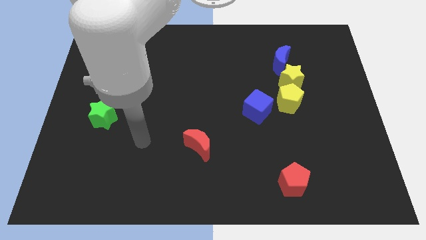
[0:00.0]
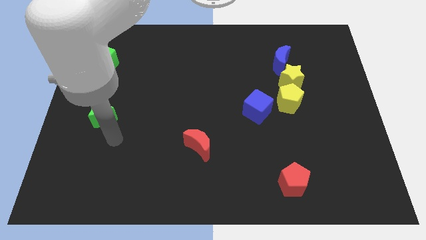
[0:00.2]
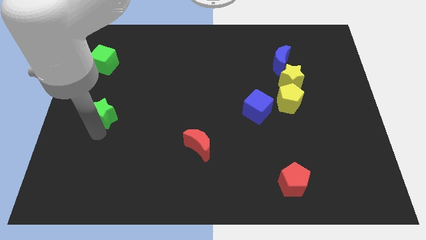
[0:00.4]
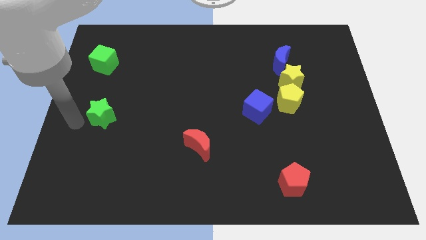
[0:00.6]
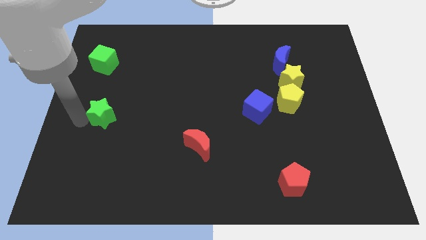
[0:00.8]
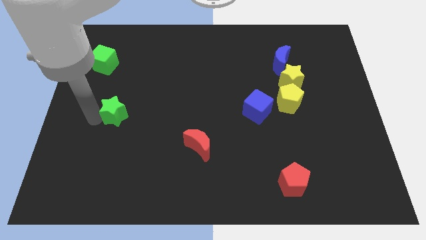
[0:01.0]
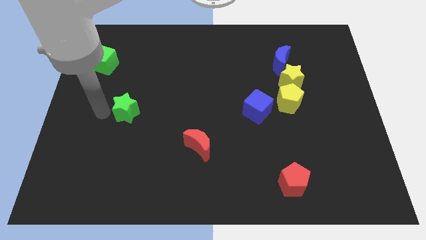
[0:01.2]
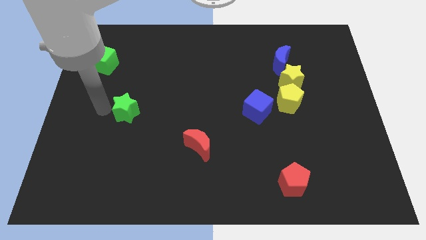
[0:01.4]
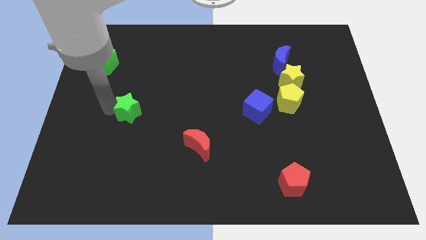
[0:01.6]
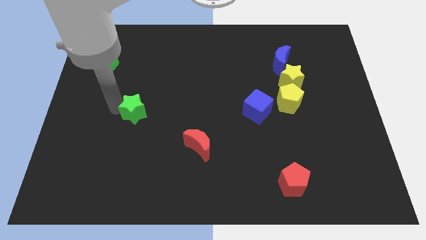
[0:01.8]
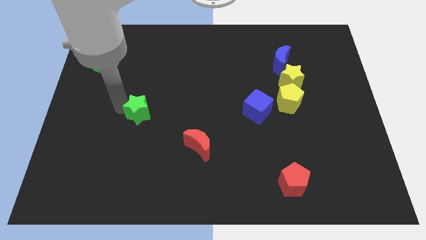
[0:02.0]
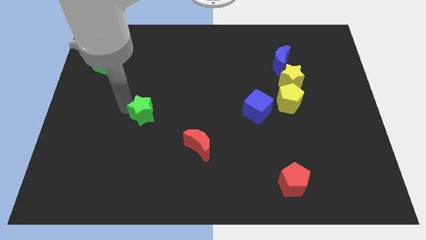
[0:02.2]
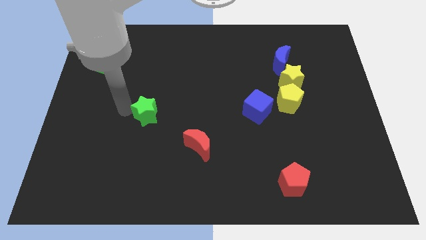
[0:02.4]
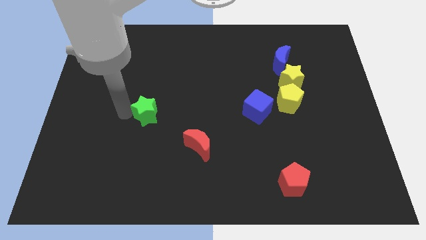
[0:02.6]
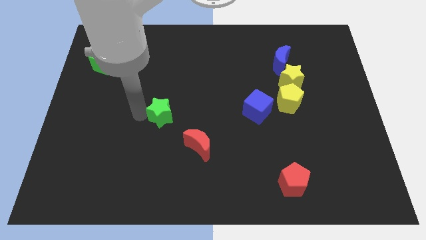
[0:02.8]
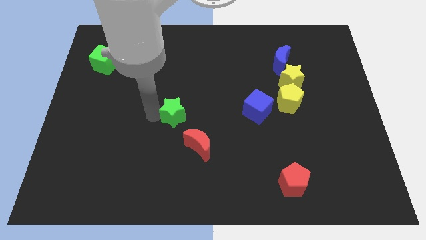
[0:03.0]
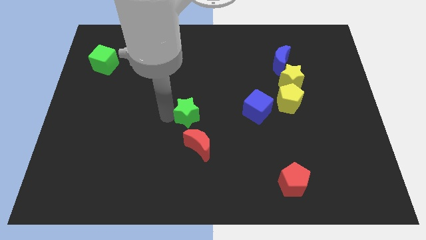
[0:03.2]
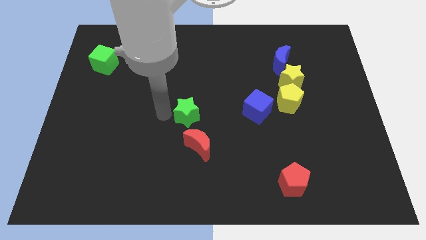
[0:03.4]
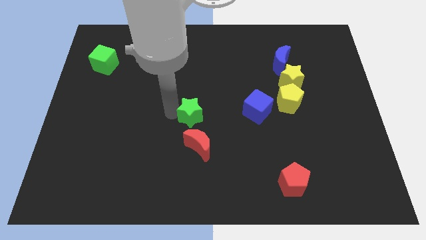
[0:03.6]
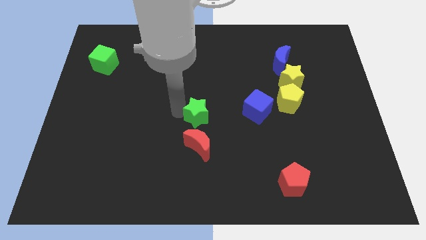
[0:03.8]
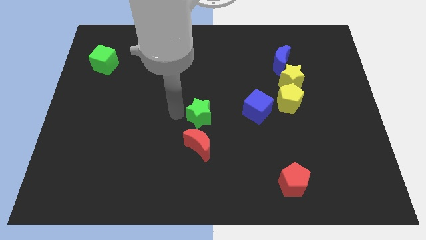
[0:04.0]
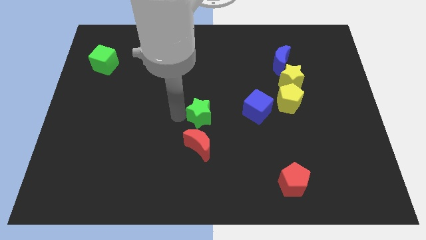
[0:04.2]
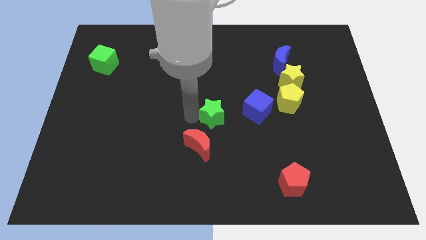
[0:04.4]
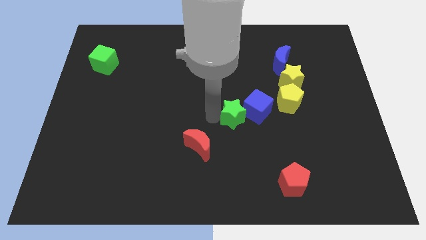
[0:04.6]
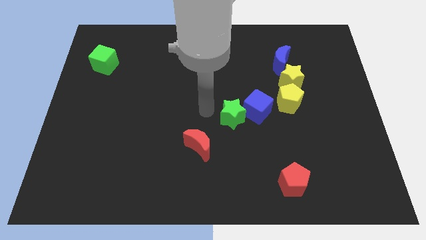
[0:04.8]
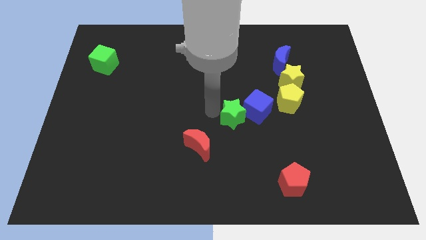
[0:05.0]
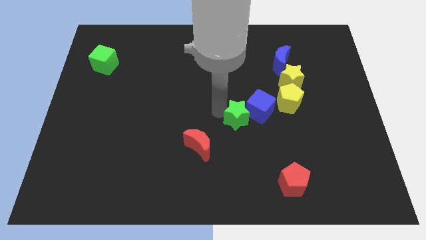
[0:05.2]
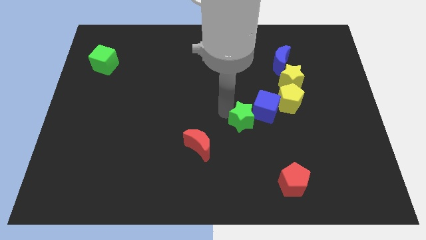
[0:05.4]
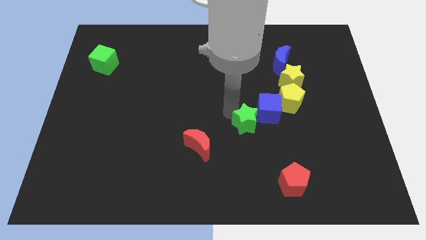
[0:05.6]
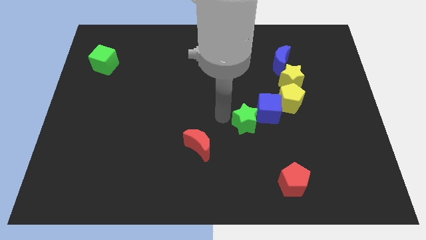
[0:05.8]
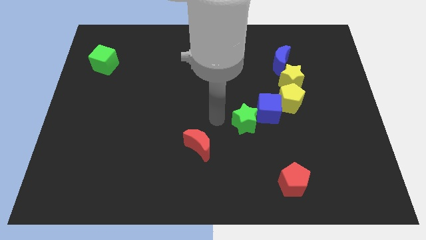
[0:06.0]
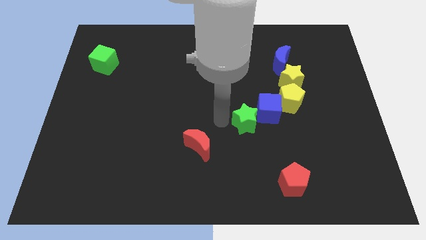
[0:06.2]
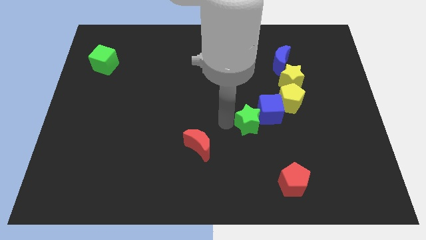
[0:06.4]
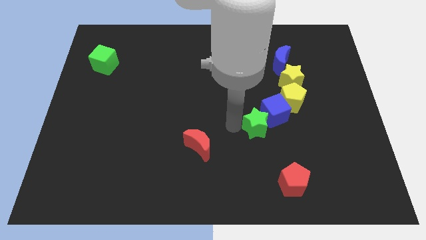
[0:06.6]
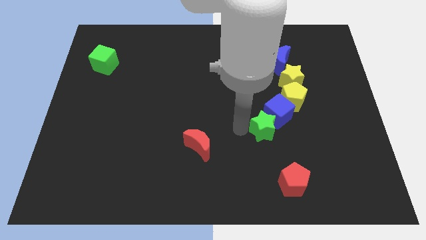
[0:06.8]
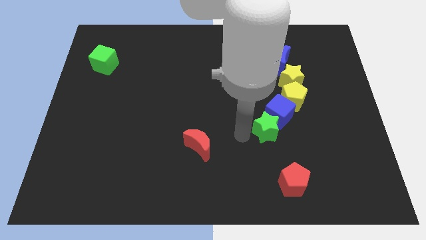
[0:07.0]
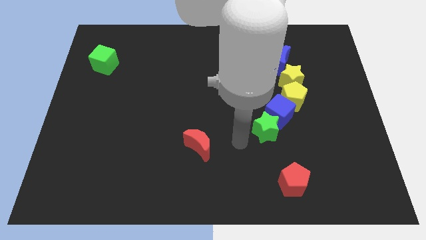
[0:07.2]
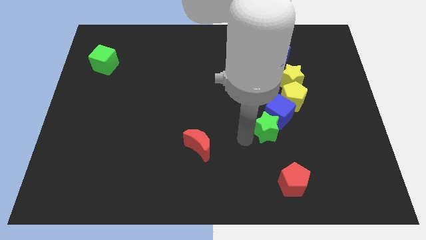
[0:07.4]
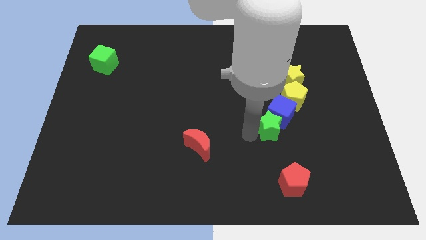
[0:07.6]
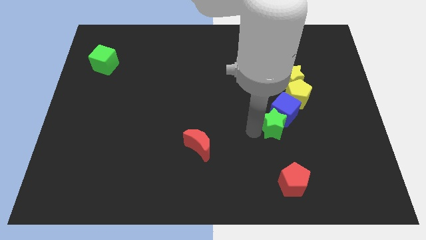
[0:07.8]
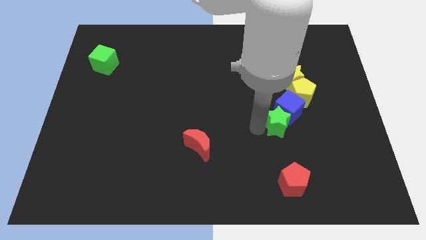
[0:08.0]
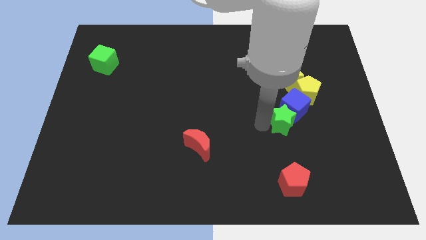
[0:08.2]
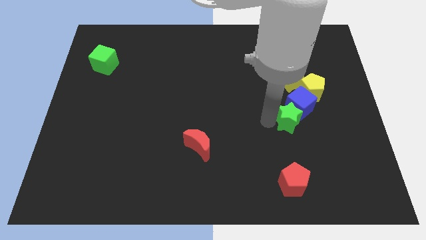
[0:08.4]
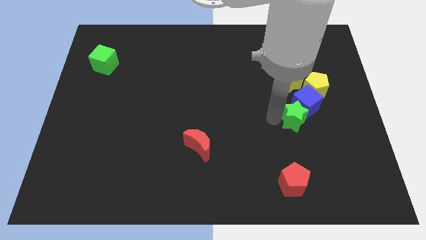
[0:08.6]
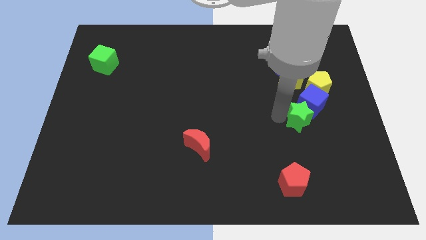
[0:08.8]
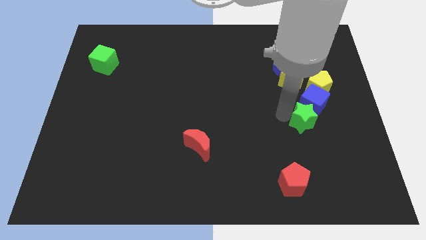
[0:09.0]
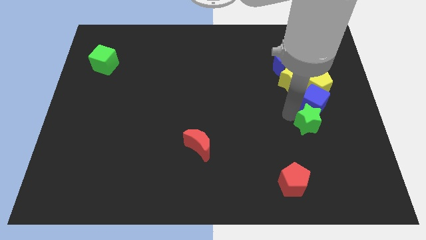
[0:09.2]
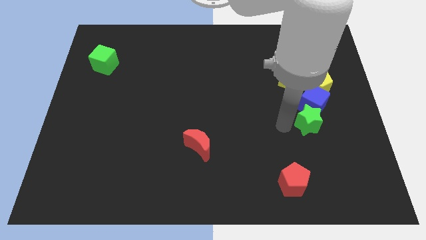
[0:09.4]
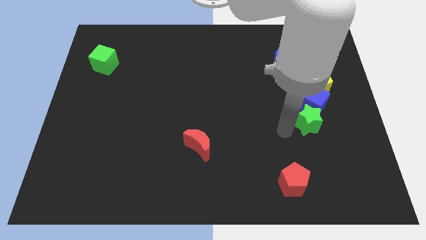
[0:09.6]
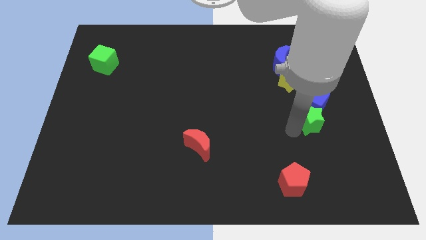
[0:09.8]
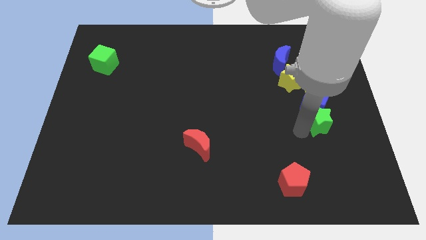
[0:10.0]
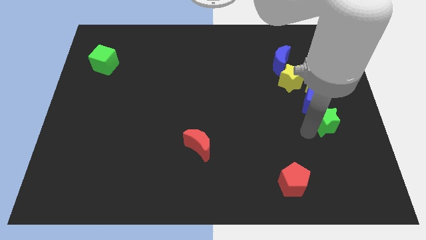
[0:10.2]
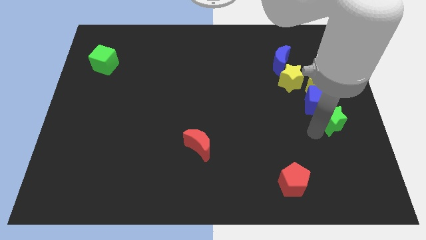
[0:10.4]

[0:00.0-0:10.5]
move the green star to the right side of the board

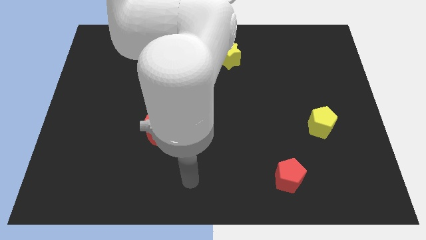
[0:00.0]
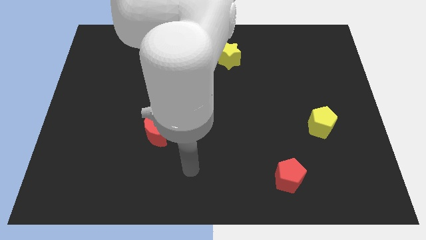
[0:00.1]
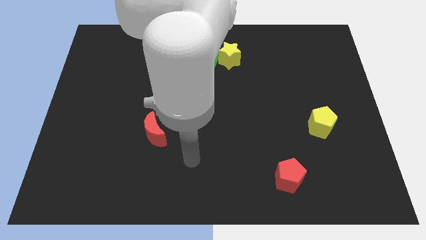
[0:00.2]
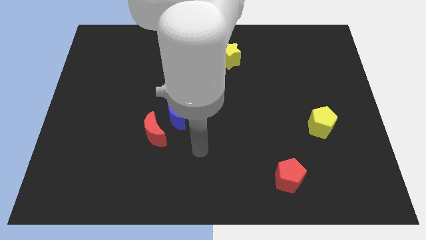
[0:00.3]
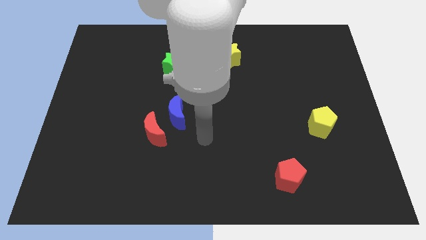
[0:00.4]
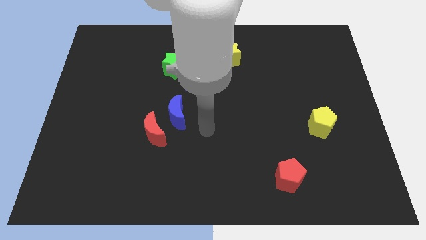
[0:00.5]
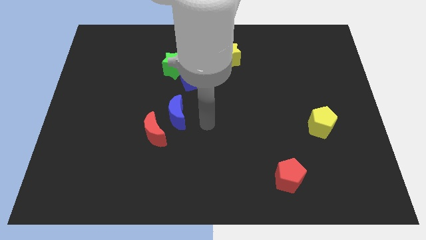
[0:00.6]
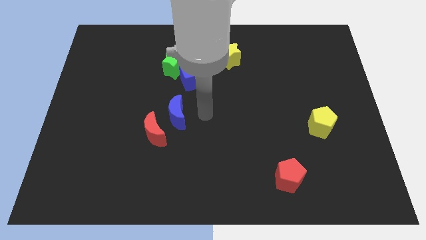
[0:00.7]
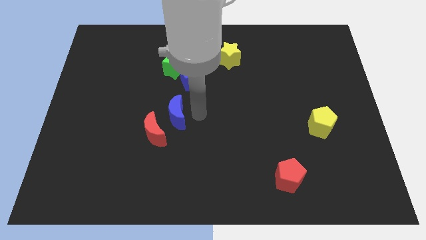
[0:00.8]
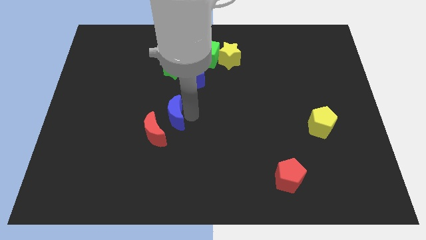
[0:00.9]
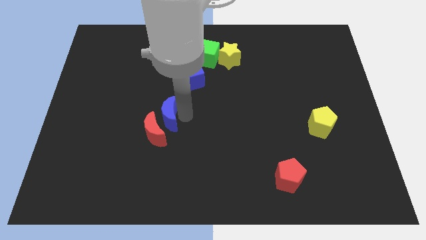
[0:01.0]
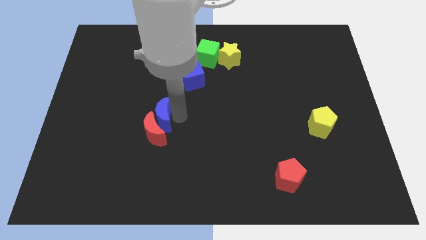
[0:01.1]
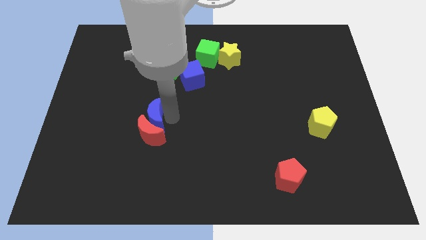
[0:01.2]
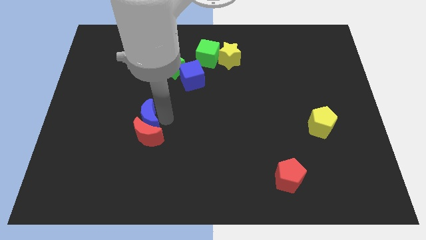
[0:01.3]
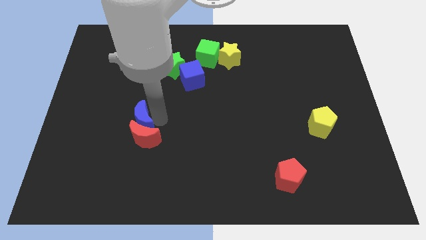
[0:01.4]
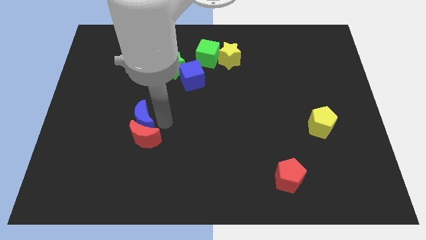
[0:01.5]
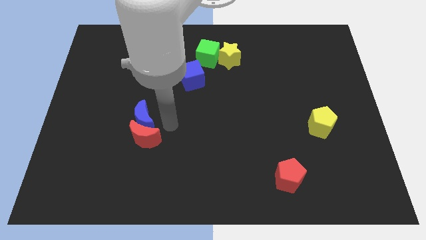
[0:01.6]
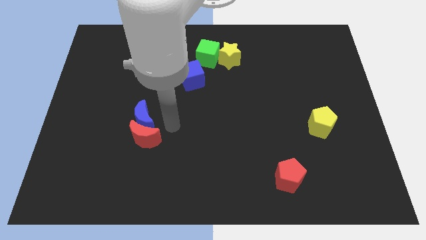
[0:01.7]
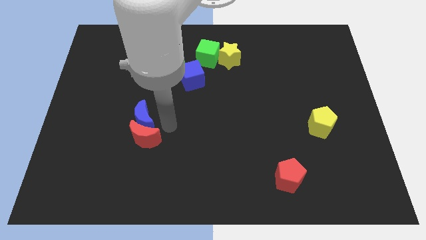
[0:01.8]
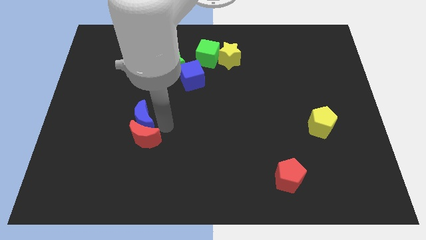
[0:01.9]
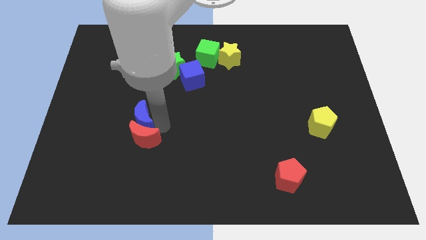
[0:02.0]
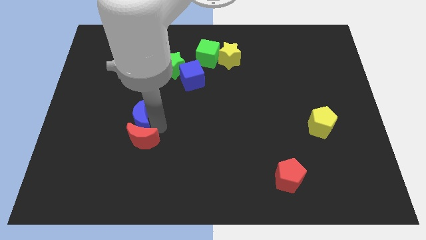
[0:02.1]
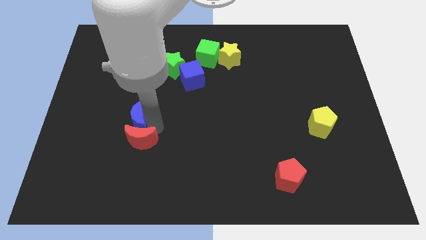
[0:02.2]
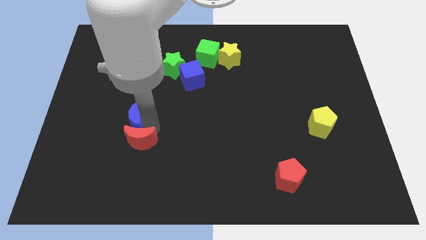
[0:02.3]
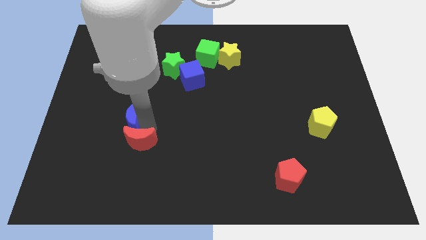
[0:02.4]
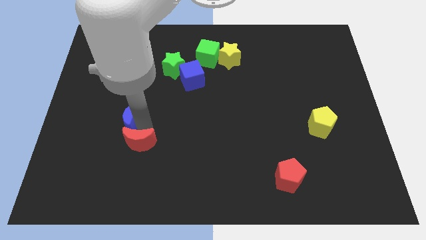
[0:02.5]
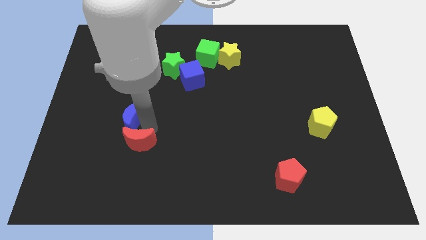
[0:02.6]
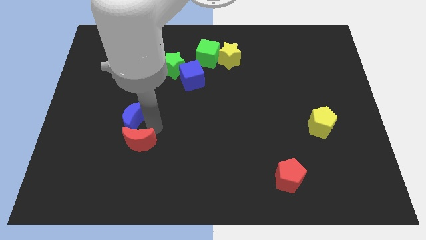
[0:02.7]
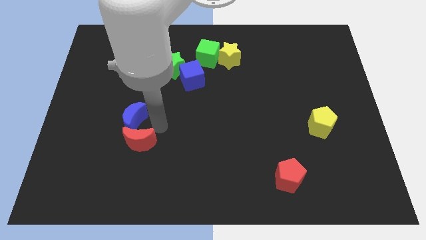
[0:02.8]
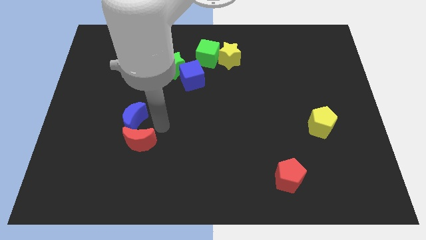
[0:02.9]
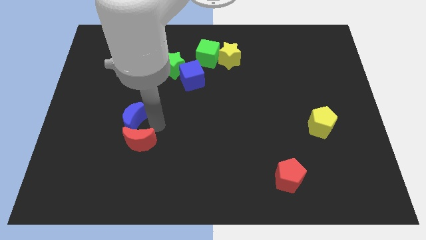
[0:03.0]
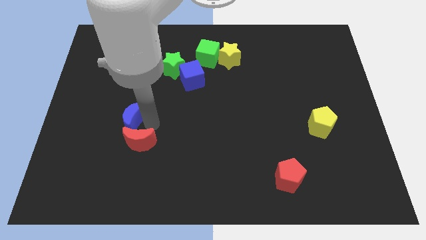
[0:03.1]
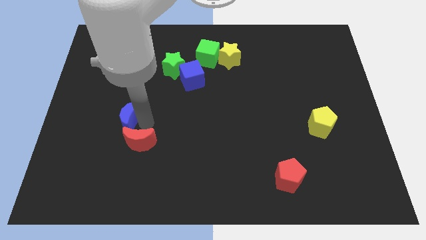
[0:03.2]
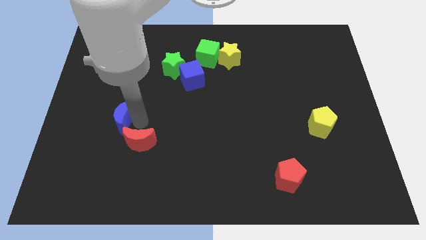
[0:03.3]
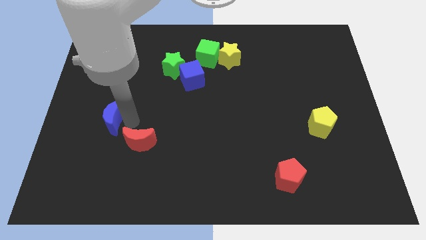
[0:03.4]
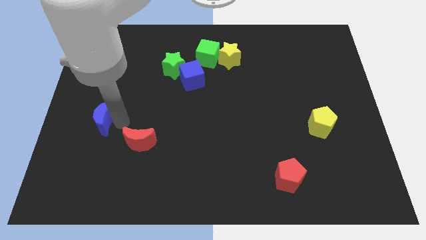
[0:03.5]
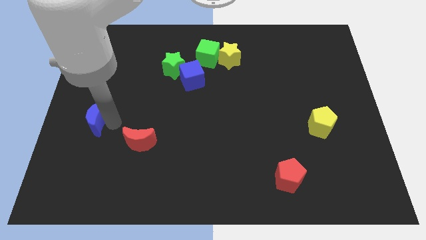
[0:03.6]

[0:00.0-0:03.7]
push the blue moon to the left side
